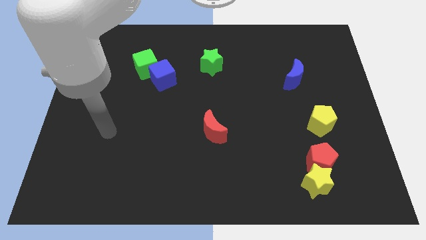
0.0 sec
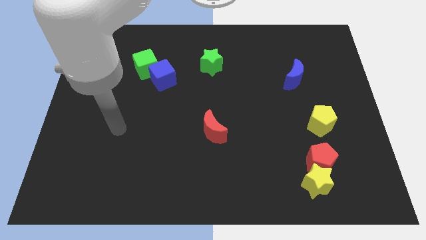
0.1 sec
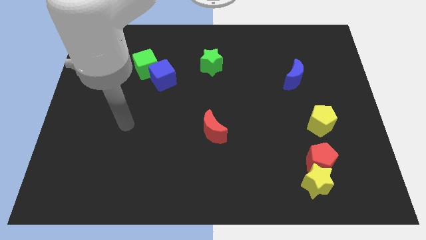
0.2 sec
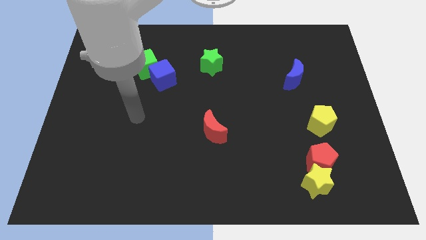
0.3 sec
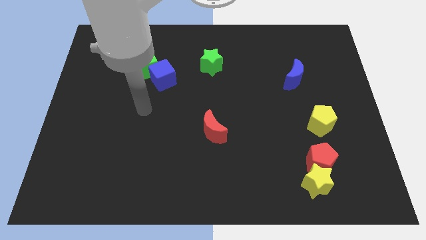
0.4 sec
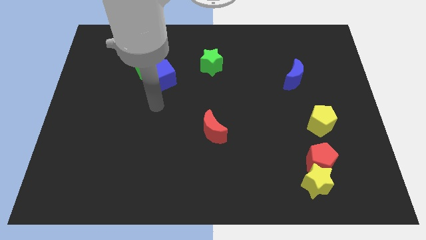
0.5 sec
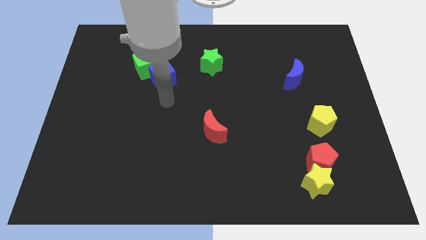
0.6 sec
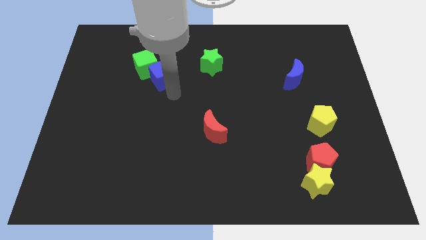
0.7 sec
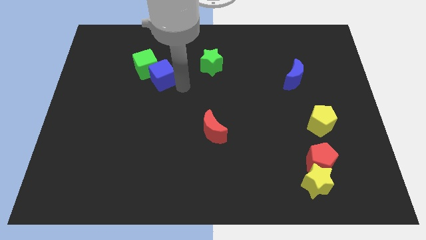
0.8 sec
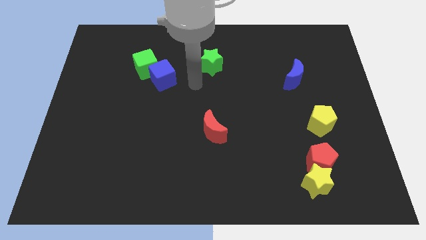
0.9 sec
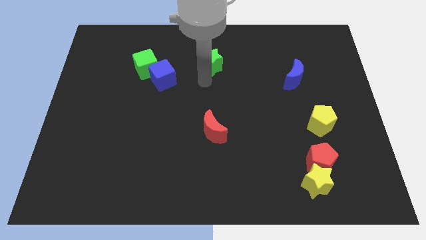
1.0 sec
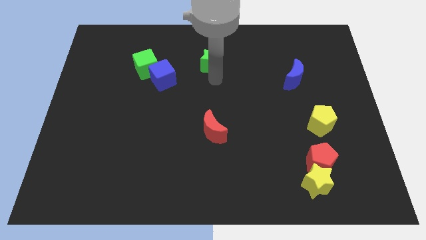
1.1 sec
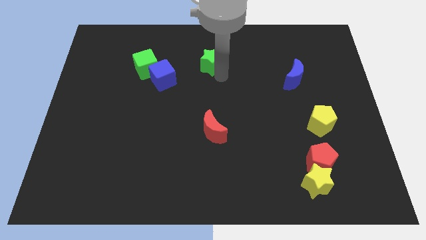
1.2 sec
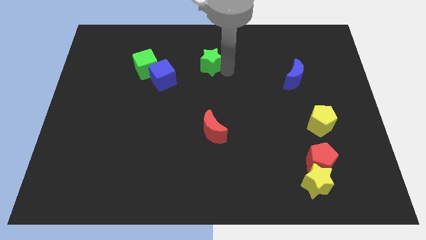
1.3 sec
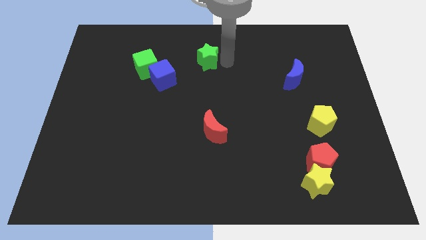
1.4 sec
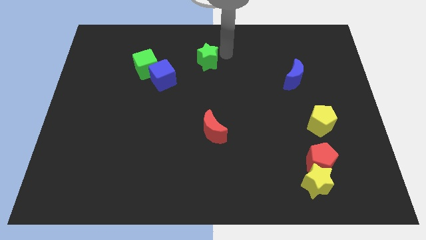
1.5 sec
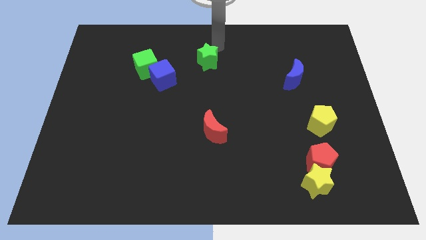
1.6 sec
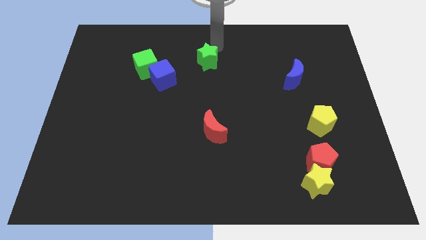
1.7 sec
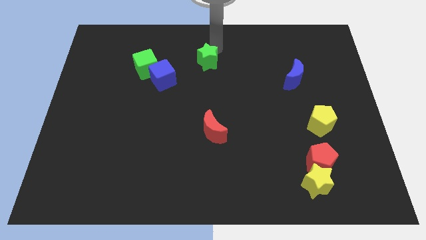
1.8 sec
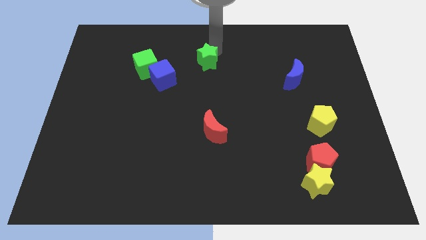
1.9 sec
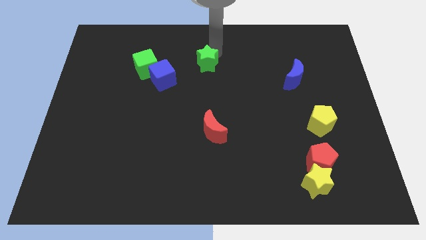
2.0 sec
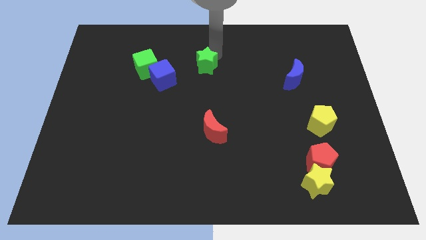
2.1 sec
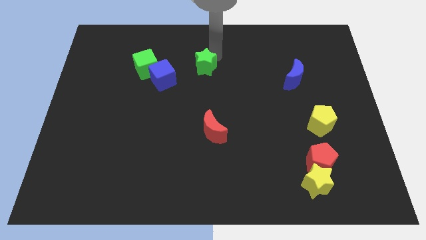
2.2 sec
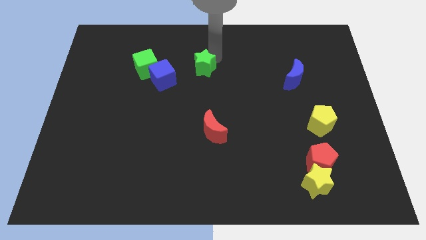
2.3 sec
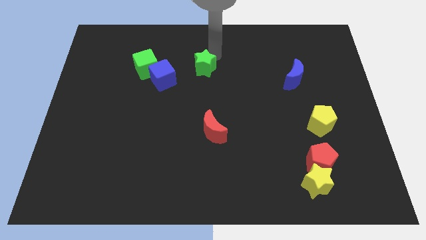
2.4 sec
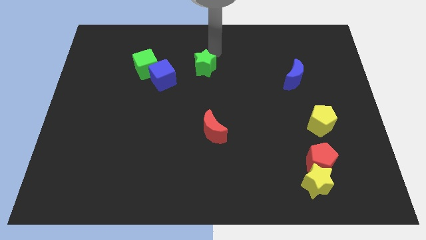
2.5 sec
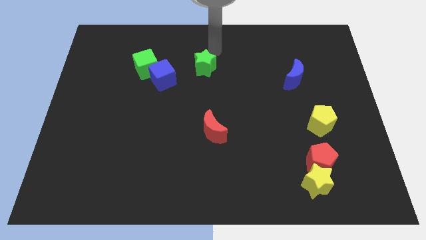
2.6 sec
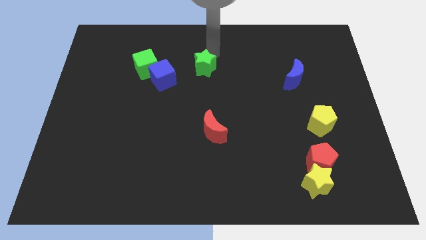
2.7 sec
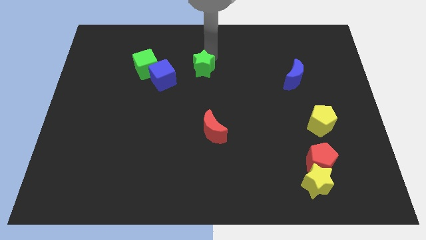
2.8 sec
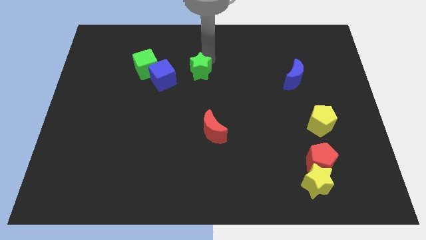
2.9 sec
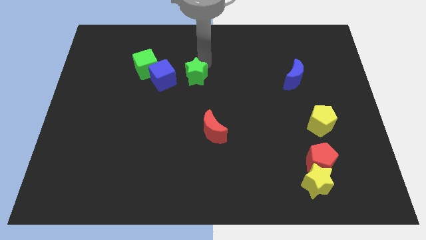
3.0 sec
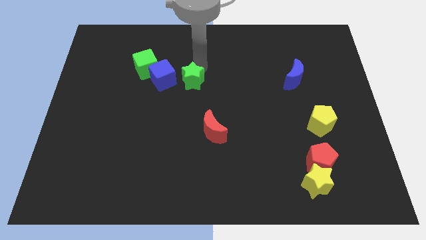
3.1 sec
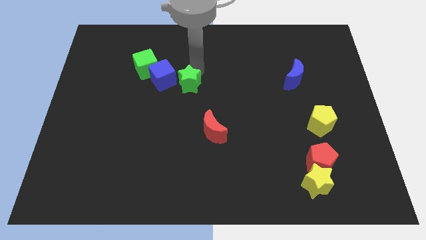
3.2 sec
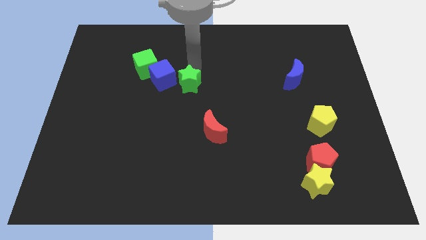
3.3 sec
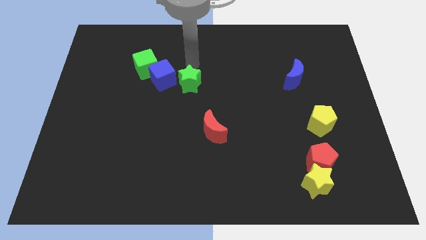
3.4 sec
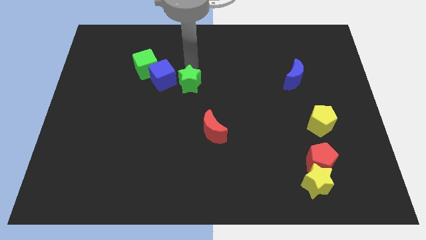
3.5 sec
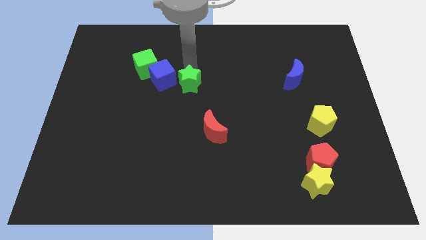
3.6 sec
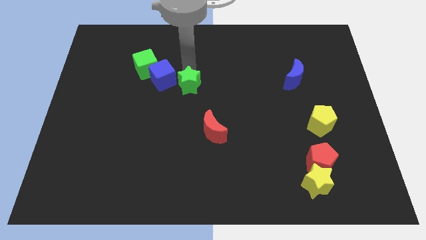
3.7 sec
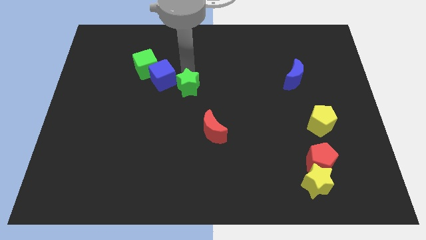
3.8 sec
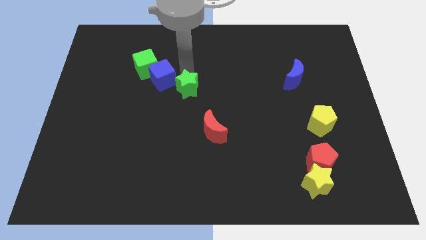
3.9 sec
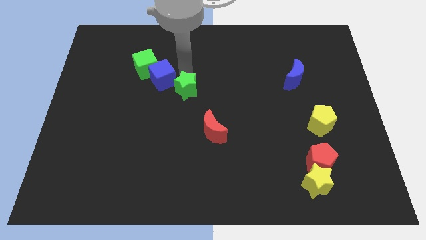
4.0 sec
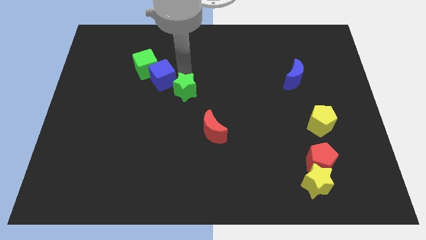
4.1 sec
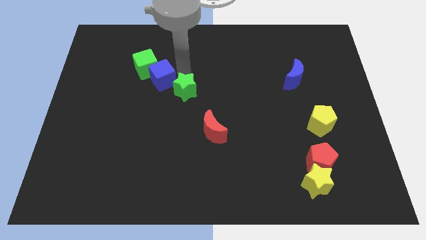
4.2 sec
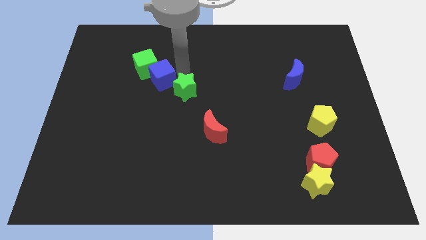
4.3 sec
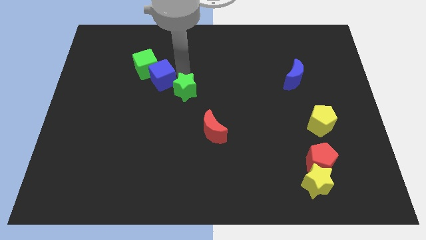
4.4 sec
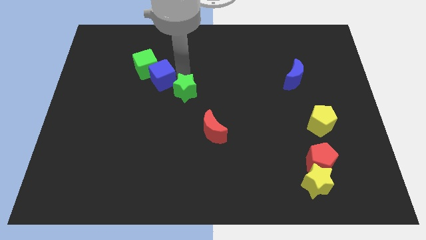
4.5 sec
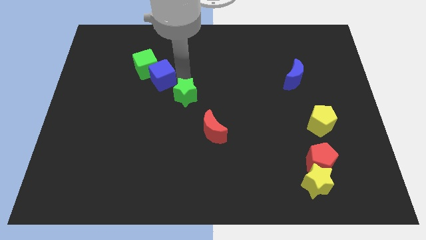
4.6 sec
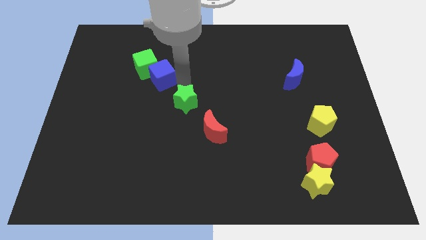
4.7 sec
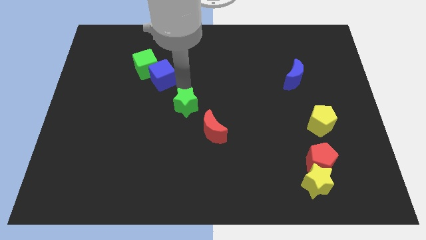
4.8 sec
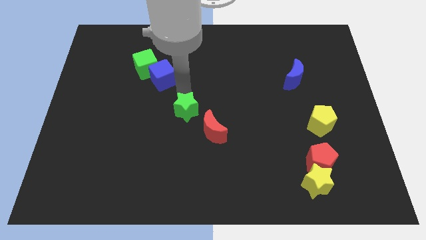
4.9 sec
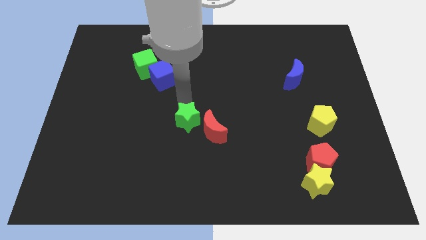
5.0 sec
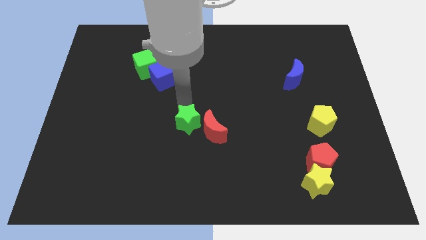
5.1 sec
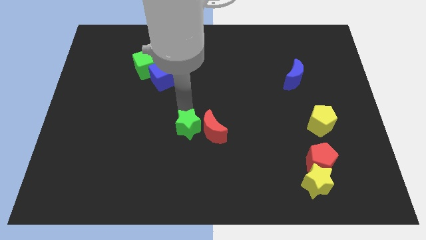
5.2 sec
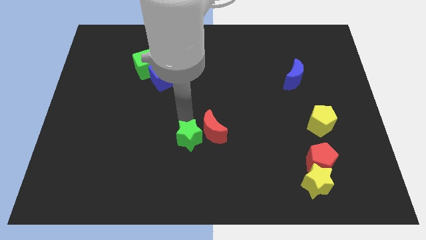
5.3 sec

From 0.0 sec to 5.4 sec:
slide the green star downwards

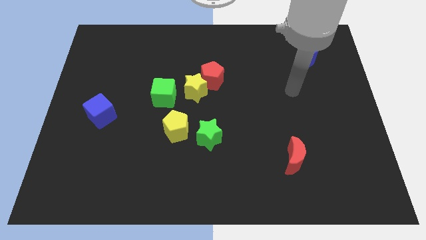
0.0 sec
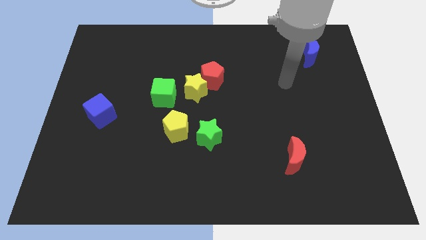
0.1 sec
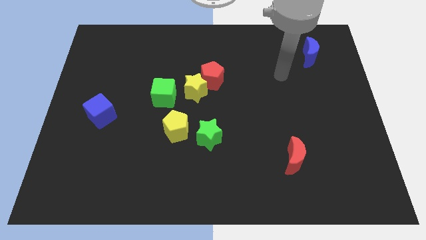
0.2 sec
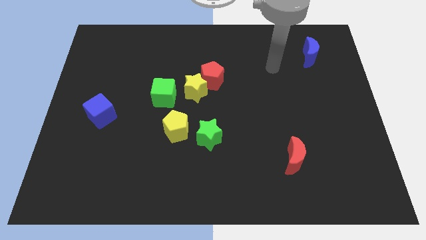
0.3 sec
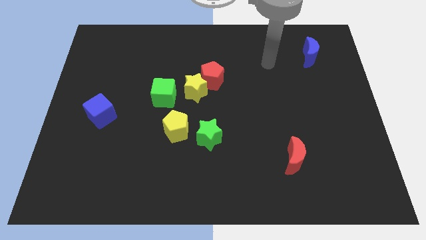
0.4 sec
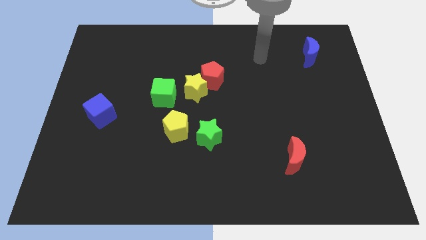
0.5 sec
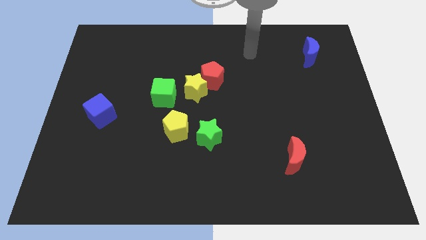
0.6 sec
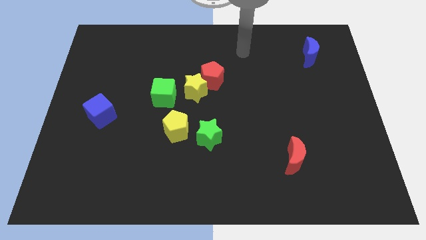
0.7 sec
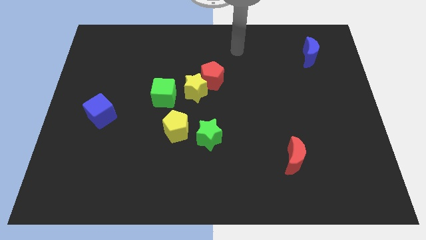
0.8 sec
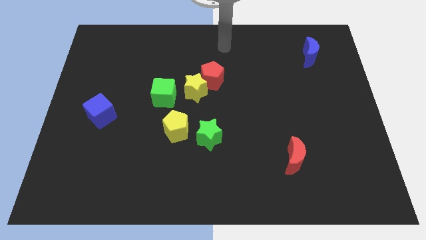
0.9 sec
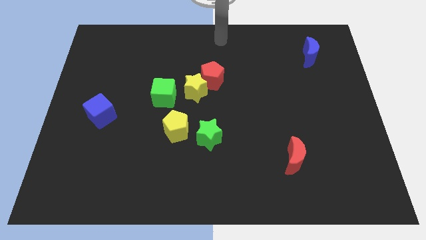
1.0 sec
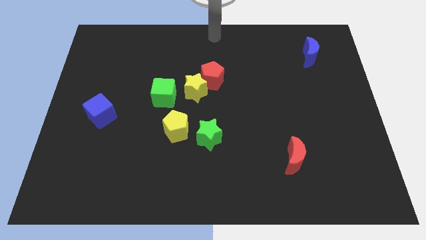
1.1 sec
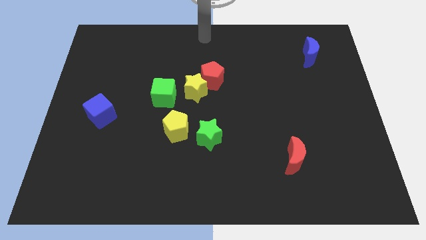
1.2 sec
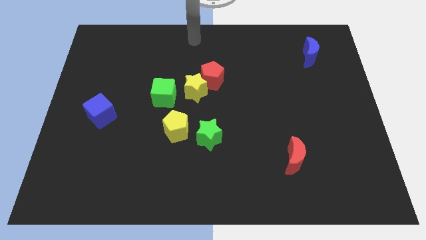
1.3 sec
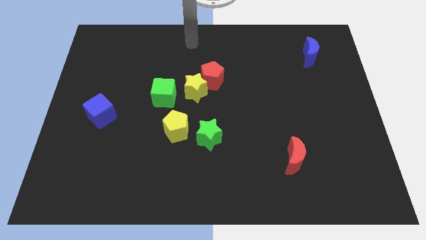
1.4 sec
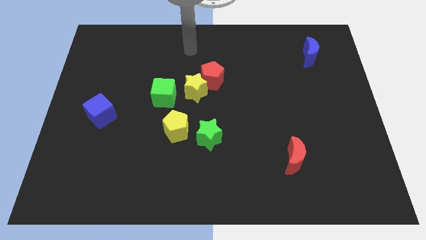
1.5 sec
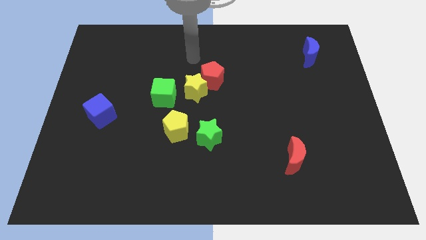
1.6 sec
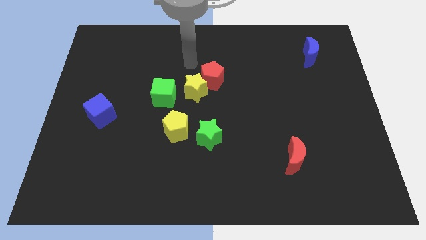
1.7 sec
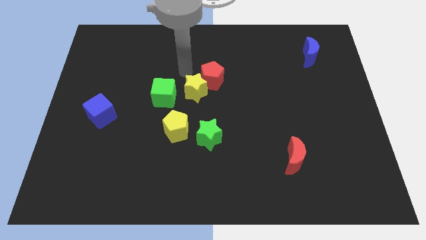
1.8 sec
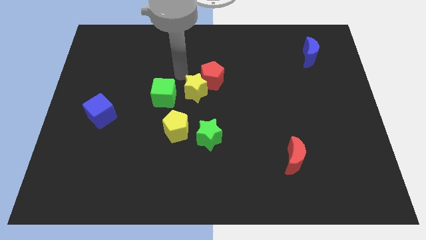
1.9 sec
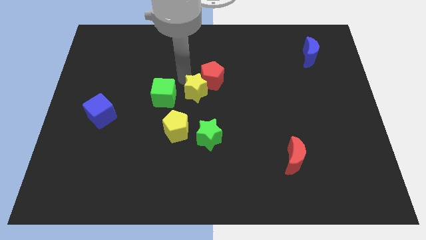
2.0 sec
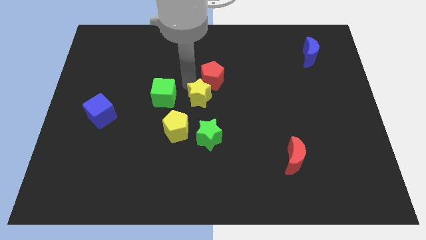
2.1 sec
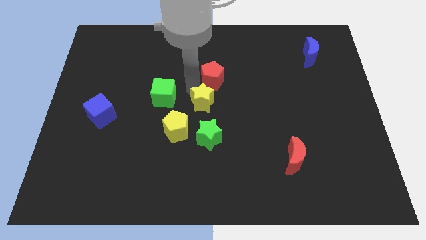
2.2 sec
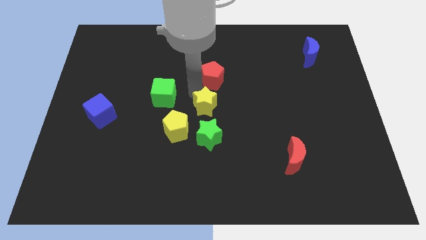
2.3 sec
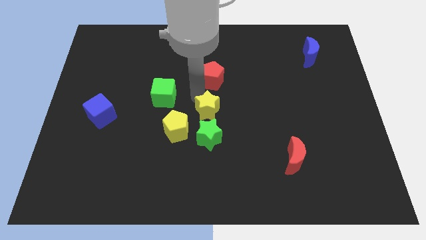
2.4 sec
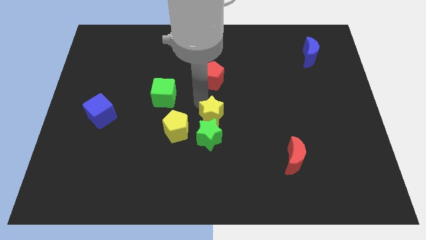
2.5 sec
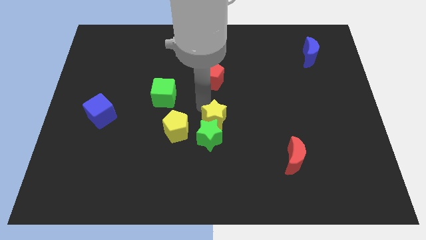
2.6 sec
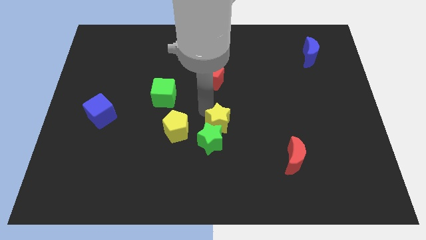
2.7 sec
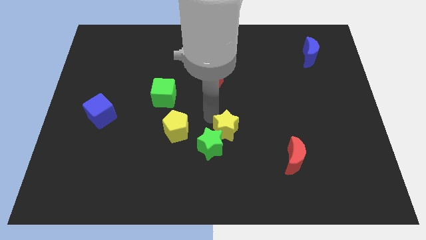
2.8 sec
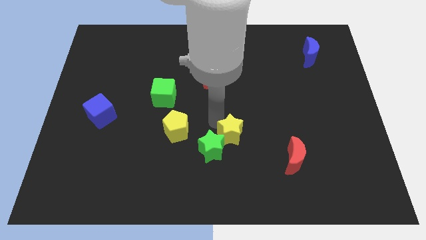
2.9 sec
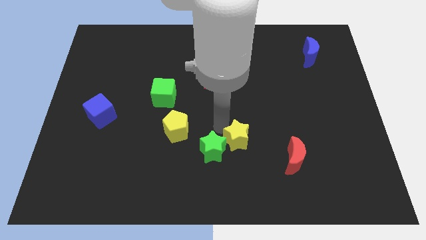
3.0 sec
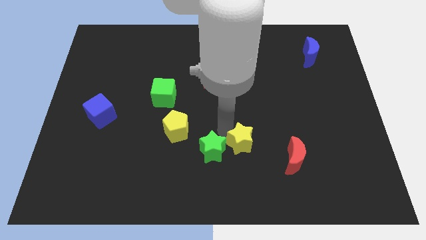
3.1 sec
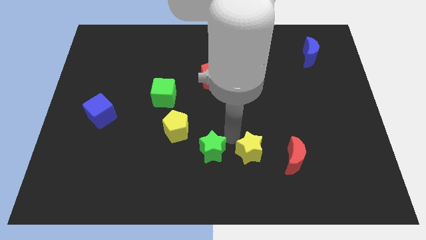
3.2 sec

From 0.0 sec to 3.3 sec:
move the yellow star diagonally down and right
